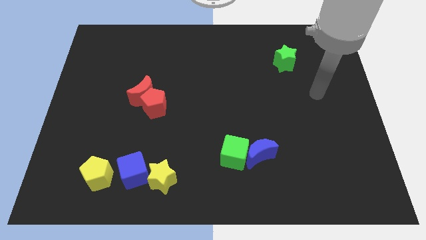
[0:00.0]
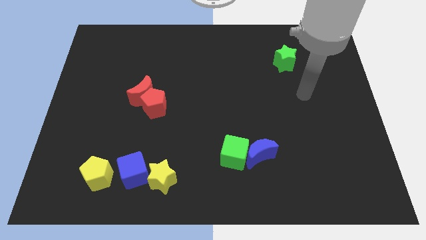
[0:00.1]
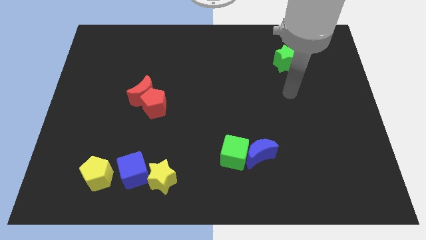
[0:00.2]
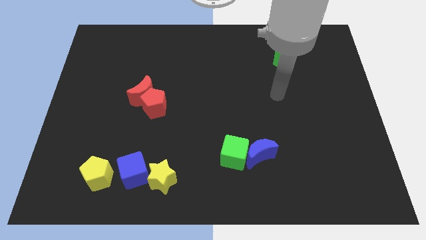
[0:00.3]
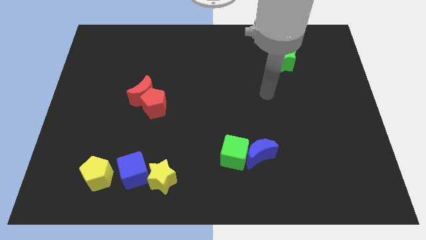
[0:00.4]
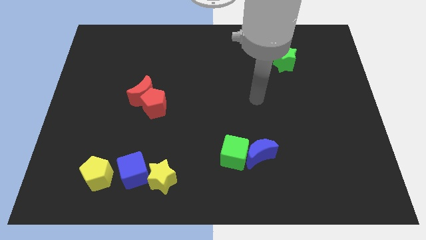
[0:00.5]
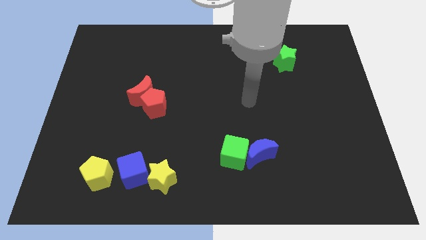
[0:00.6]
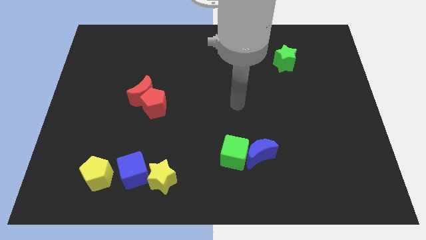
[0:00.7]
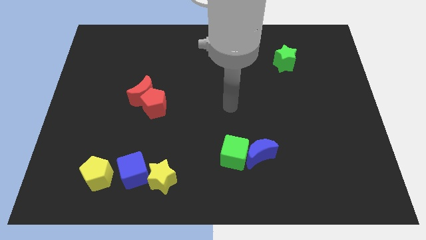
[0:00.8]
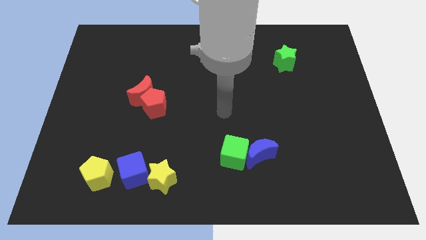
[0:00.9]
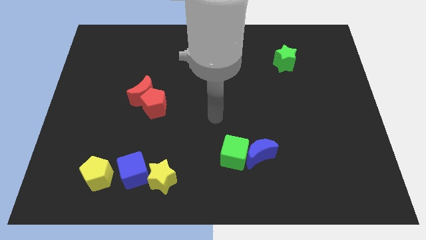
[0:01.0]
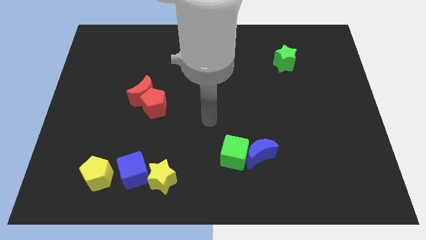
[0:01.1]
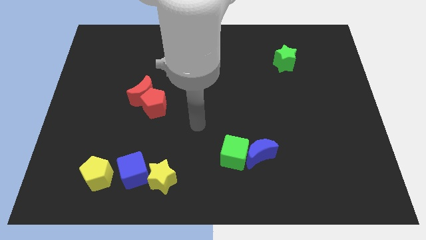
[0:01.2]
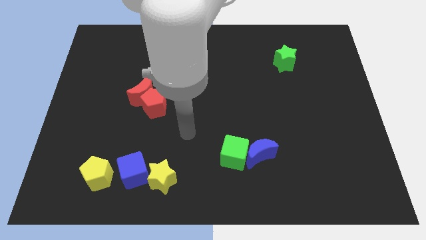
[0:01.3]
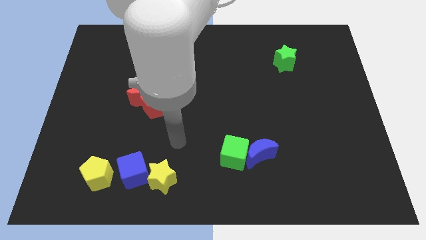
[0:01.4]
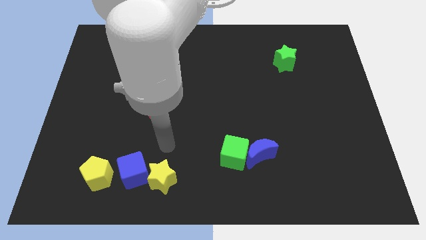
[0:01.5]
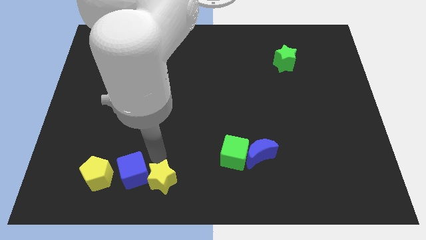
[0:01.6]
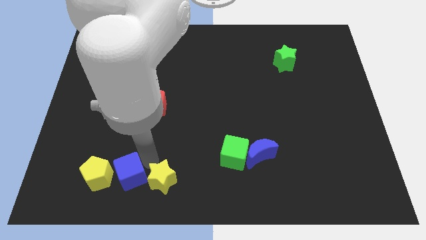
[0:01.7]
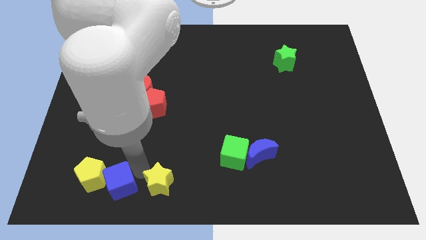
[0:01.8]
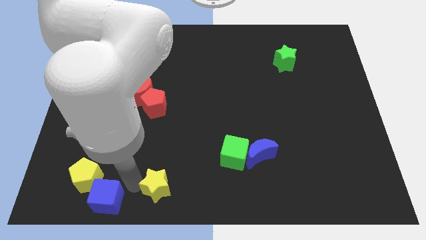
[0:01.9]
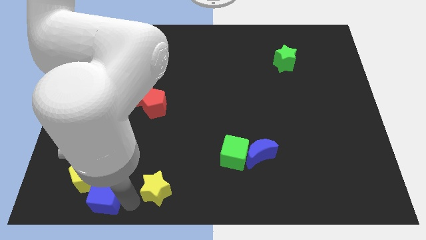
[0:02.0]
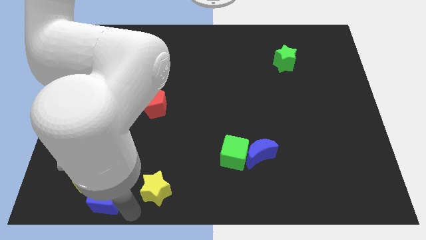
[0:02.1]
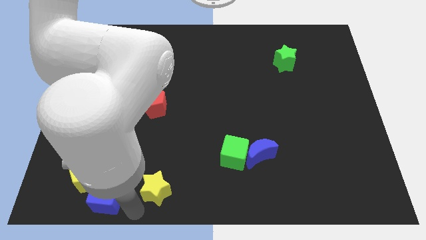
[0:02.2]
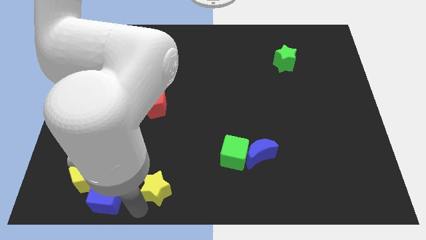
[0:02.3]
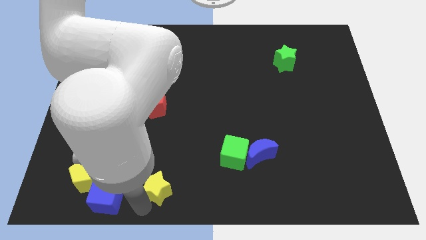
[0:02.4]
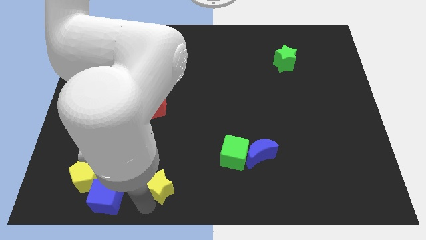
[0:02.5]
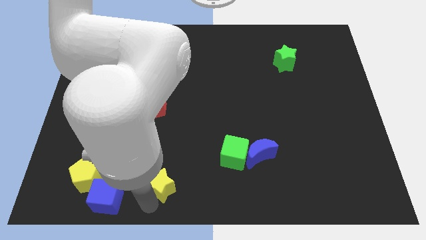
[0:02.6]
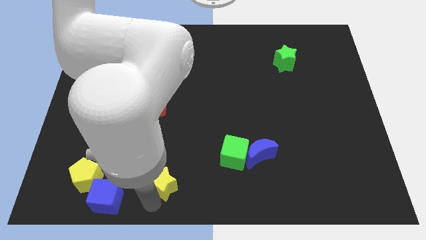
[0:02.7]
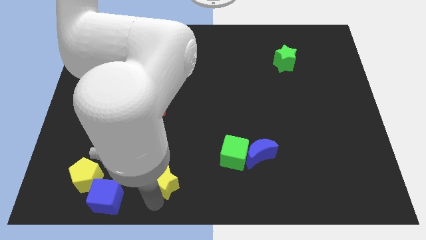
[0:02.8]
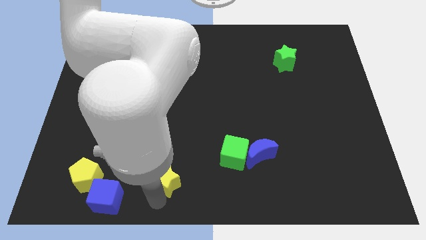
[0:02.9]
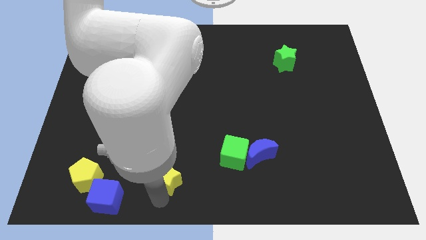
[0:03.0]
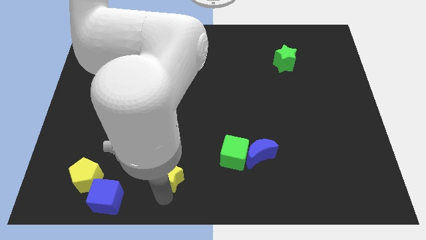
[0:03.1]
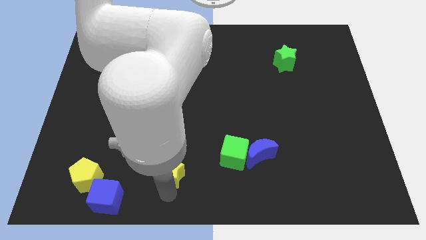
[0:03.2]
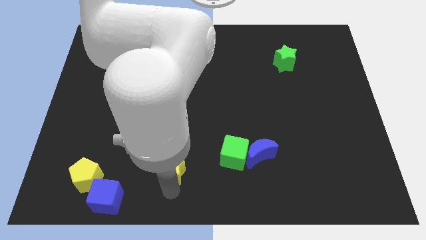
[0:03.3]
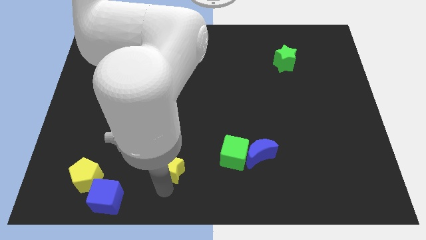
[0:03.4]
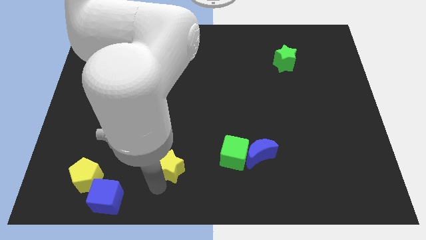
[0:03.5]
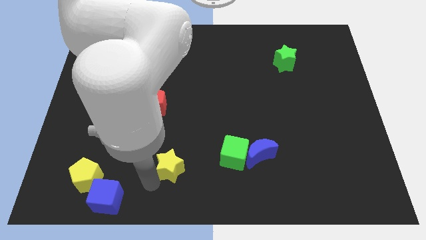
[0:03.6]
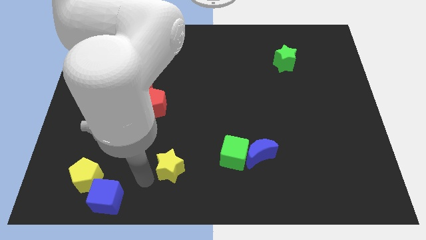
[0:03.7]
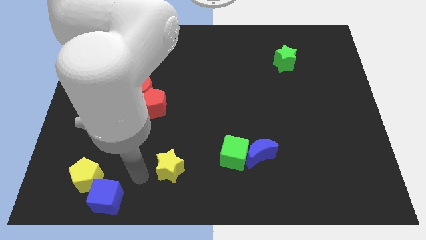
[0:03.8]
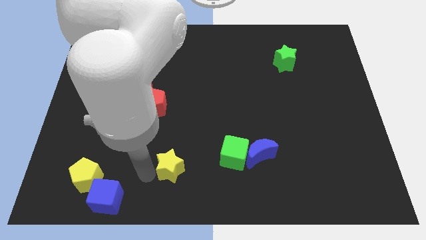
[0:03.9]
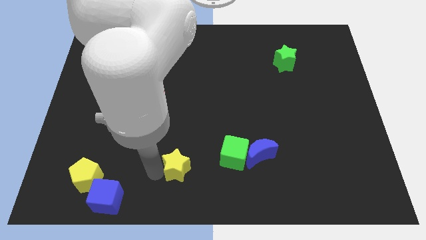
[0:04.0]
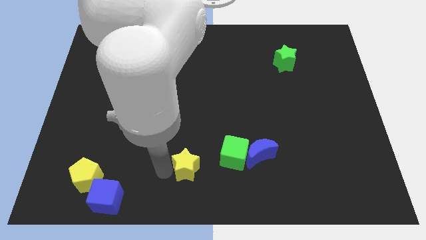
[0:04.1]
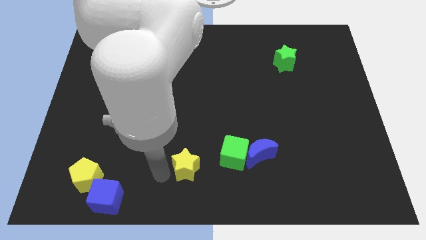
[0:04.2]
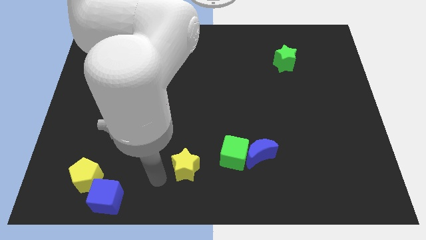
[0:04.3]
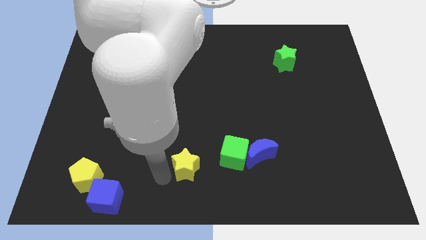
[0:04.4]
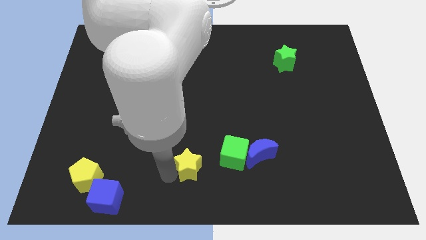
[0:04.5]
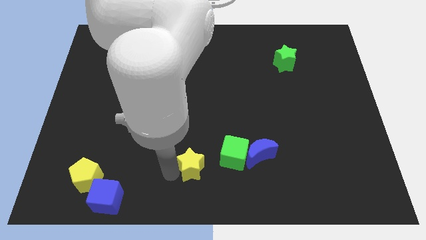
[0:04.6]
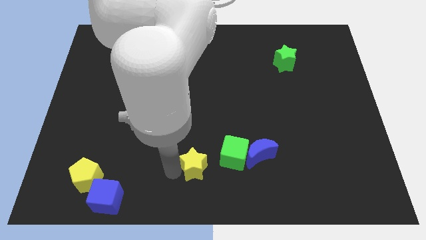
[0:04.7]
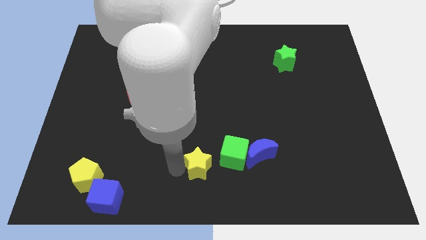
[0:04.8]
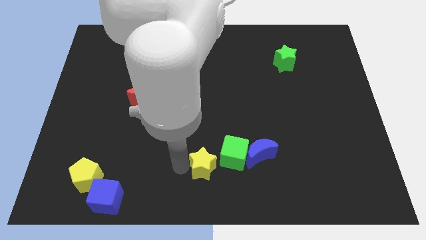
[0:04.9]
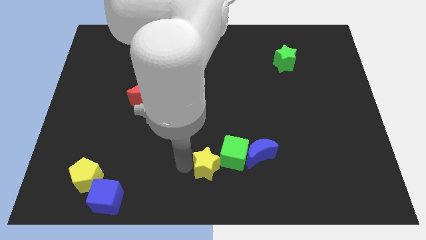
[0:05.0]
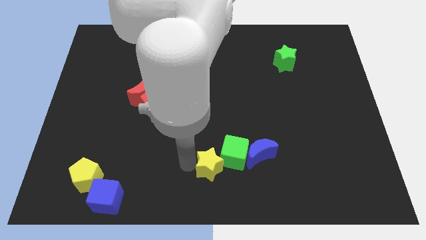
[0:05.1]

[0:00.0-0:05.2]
push the yellow star close to the green cube

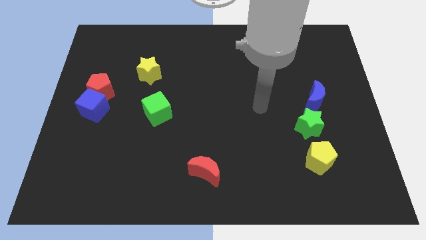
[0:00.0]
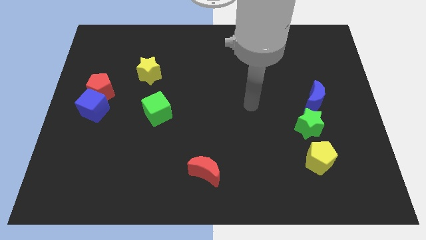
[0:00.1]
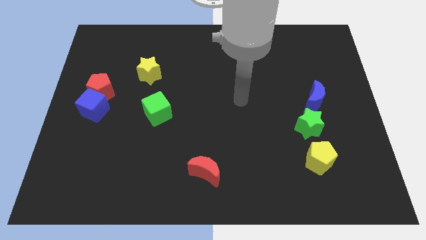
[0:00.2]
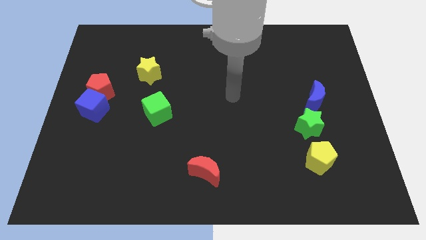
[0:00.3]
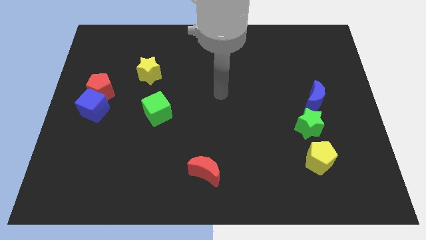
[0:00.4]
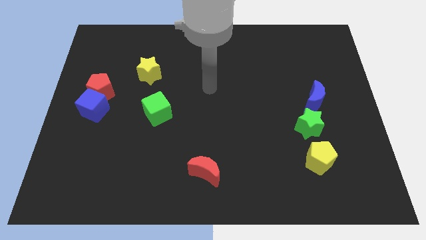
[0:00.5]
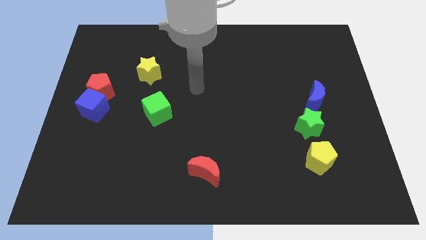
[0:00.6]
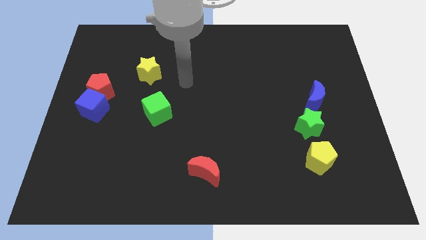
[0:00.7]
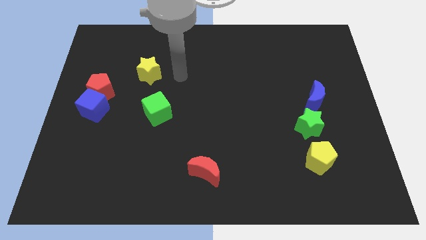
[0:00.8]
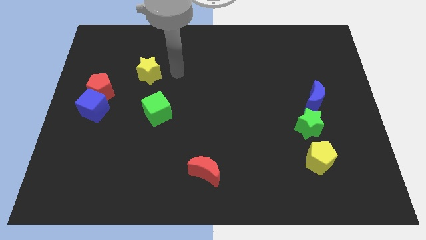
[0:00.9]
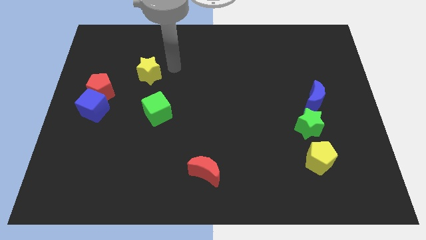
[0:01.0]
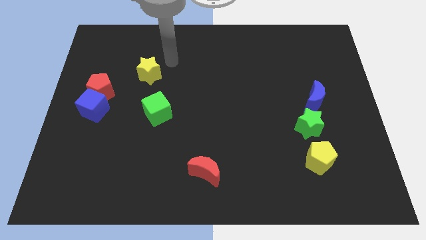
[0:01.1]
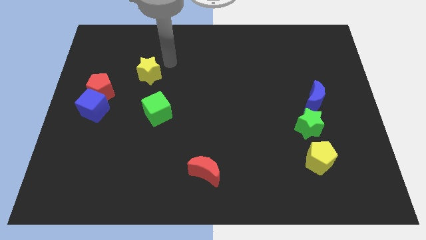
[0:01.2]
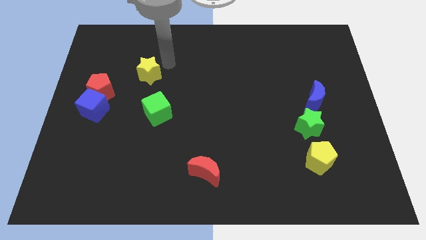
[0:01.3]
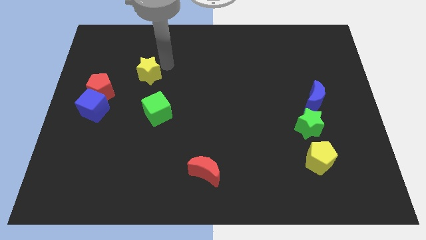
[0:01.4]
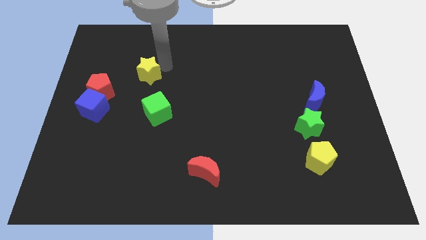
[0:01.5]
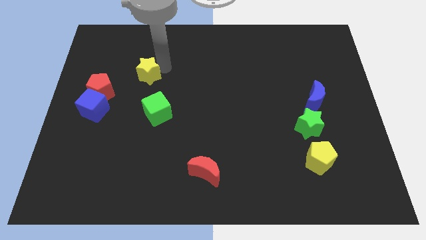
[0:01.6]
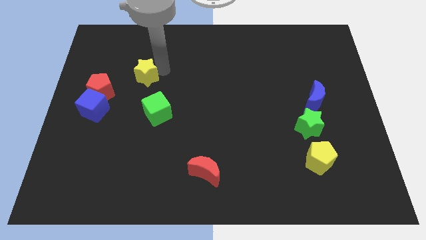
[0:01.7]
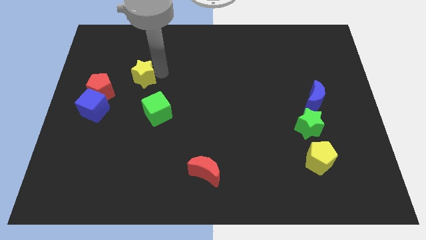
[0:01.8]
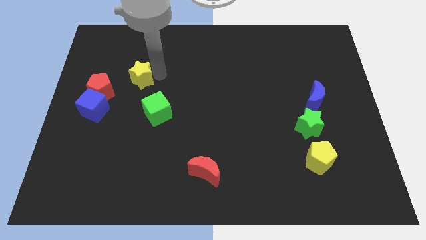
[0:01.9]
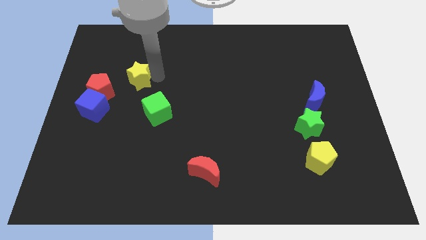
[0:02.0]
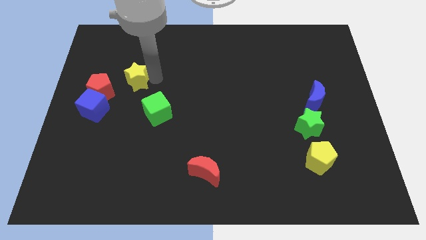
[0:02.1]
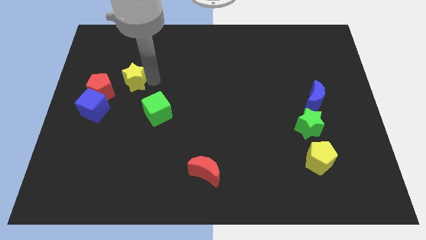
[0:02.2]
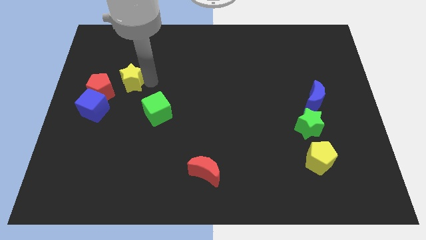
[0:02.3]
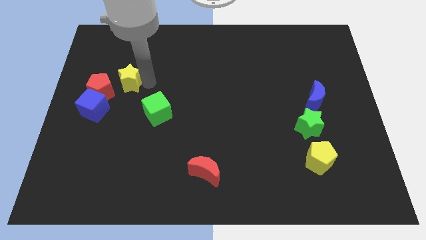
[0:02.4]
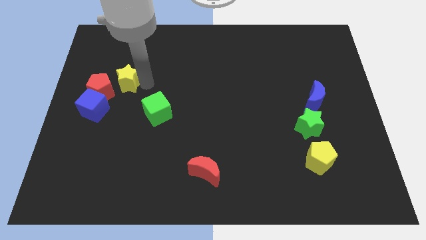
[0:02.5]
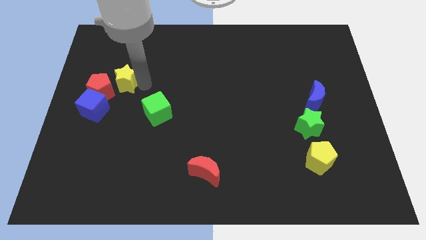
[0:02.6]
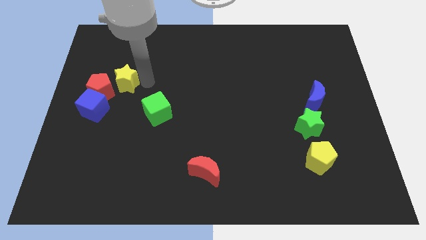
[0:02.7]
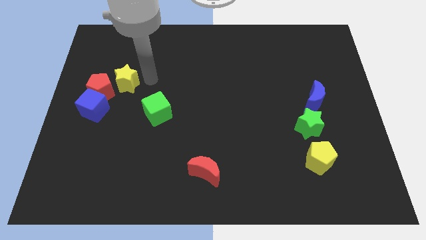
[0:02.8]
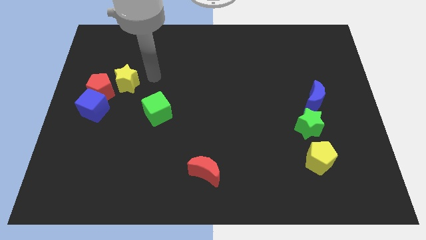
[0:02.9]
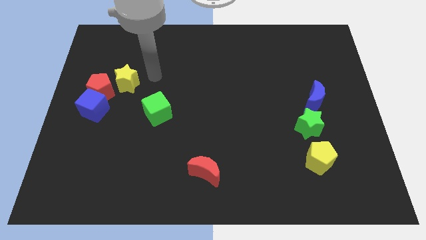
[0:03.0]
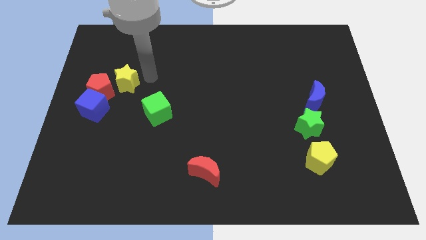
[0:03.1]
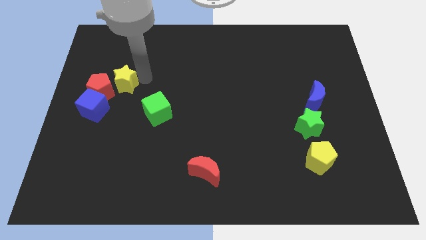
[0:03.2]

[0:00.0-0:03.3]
push the yellow star to the red pentagon
